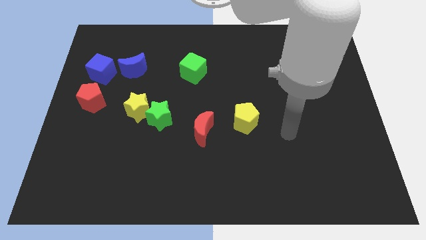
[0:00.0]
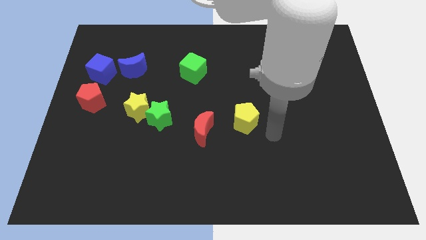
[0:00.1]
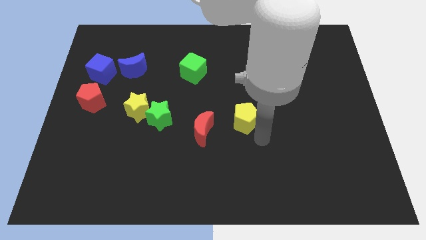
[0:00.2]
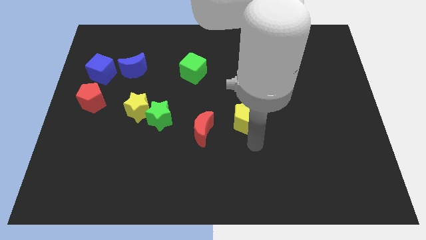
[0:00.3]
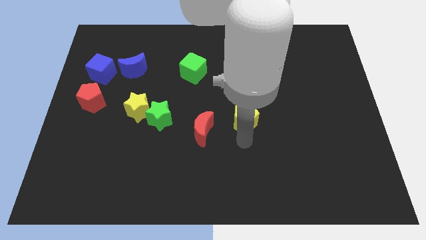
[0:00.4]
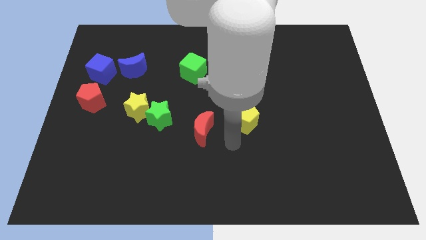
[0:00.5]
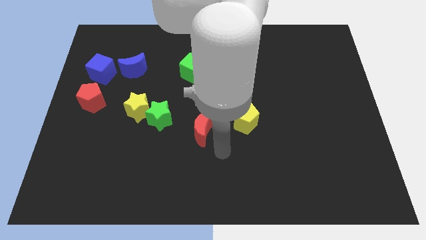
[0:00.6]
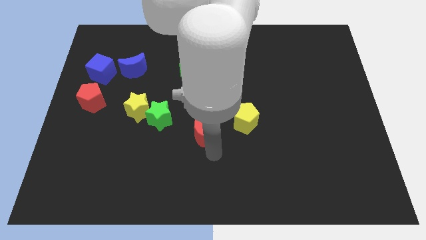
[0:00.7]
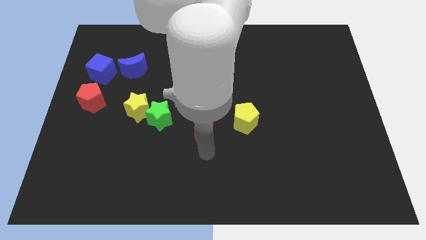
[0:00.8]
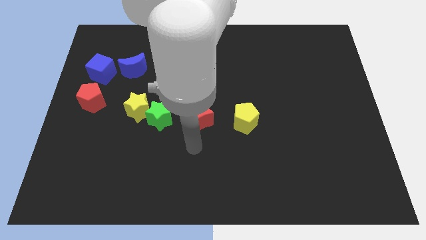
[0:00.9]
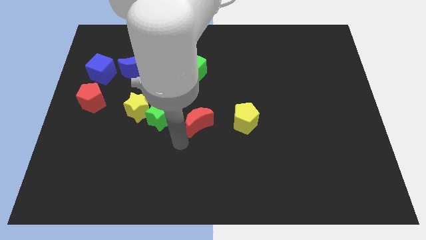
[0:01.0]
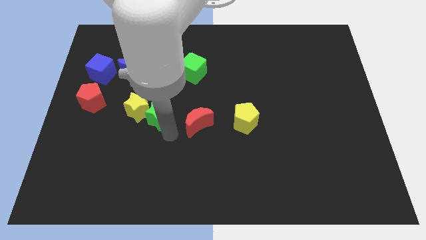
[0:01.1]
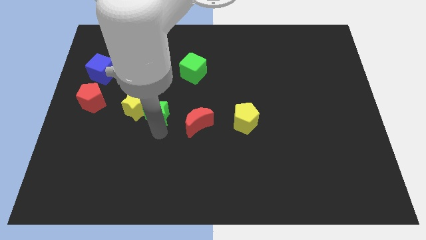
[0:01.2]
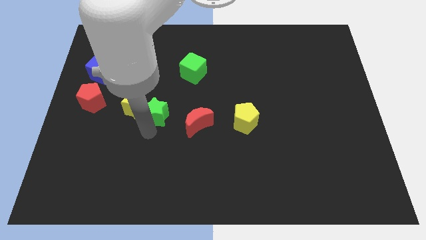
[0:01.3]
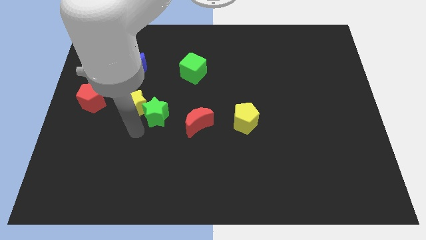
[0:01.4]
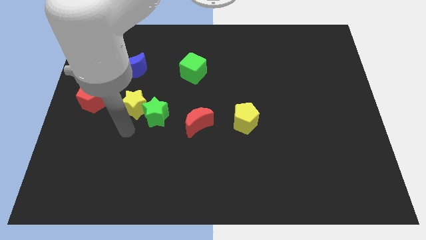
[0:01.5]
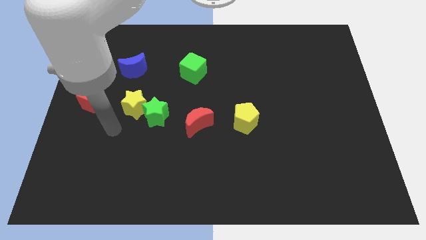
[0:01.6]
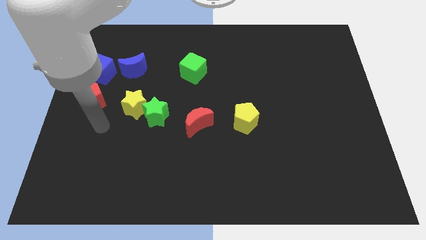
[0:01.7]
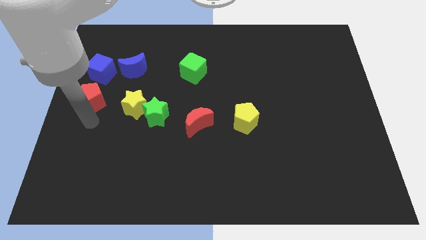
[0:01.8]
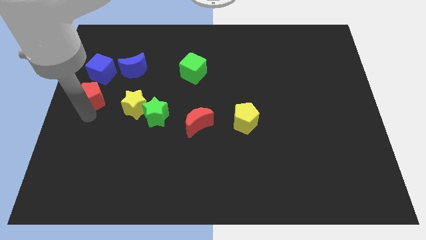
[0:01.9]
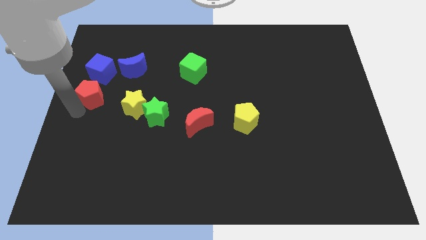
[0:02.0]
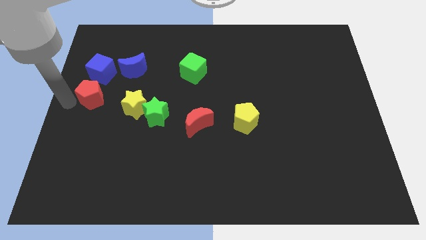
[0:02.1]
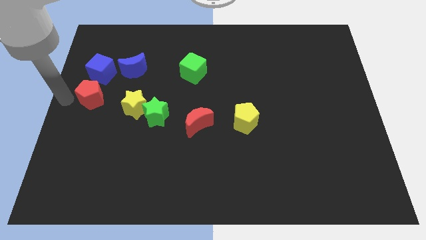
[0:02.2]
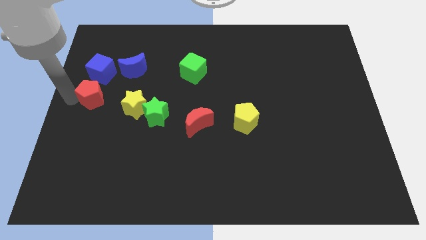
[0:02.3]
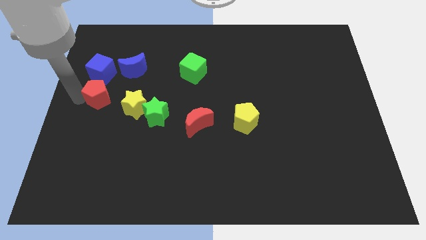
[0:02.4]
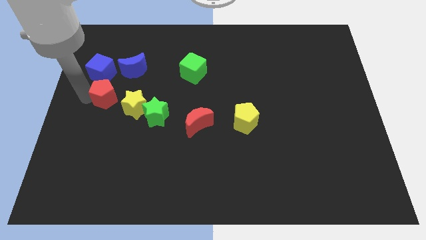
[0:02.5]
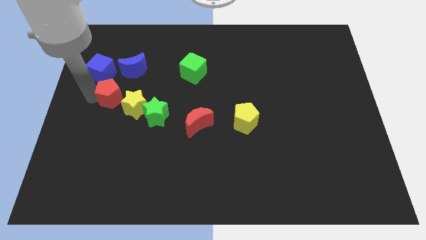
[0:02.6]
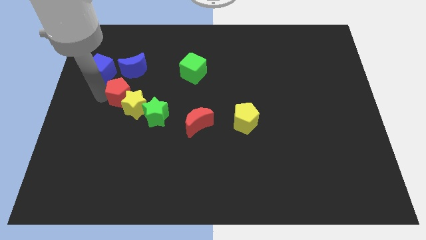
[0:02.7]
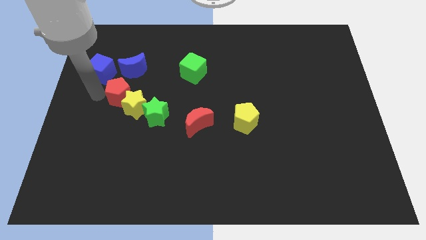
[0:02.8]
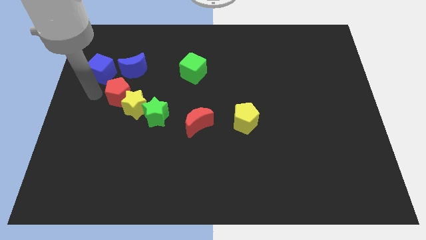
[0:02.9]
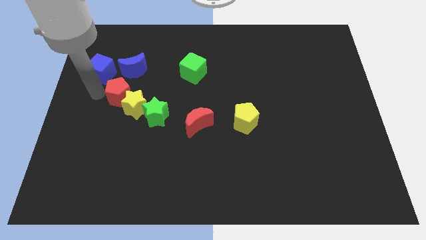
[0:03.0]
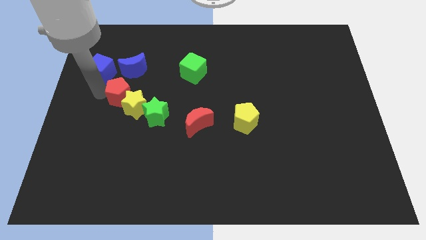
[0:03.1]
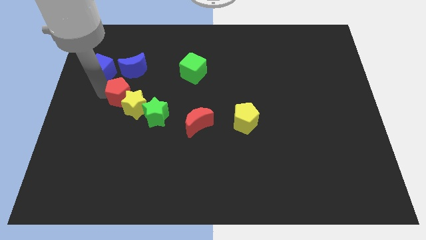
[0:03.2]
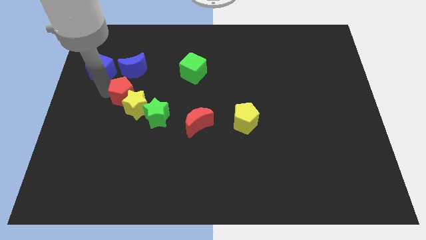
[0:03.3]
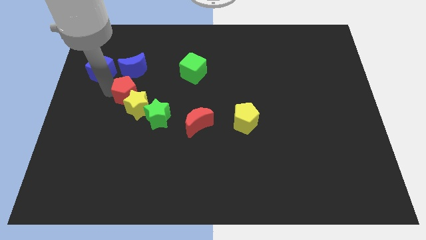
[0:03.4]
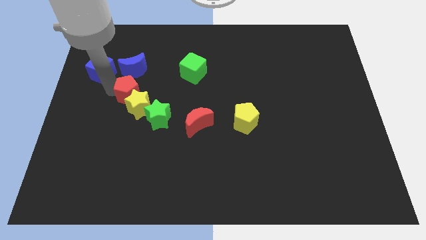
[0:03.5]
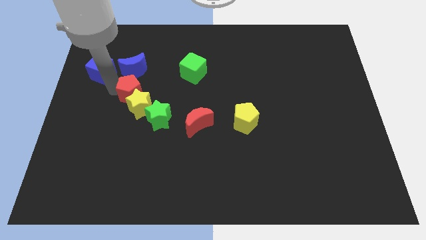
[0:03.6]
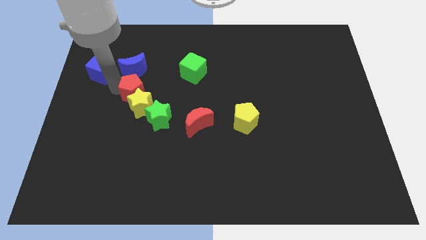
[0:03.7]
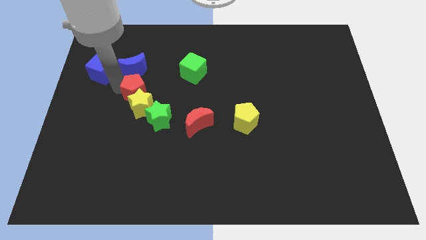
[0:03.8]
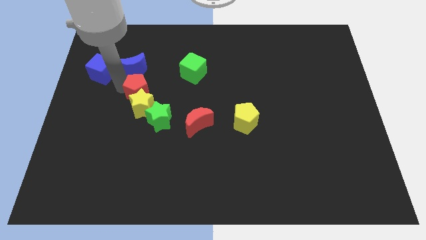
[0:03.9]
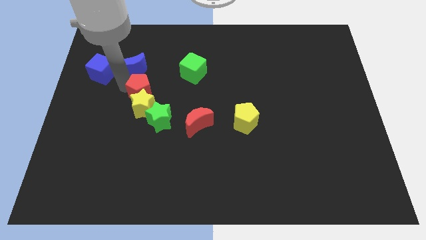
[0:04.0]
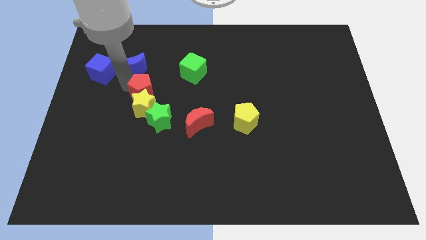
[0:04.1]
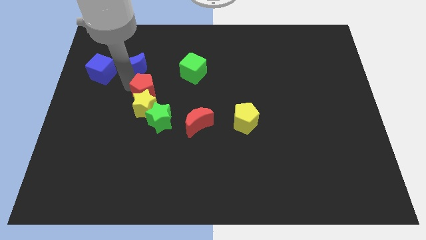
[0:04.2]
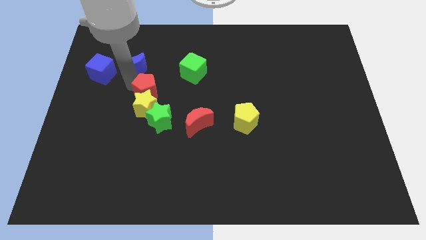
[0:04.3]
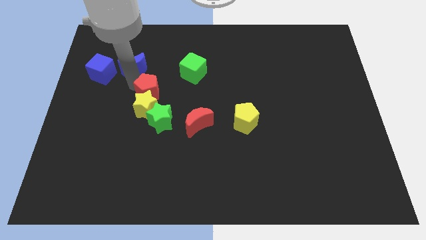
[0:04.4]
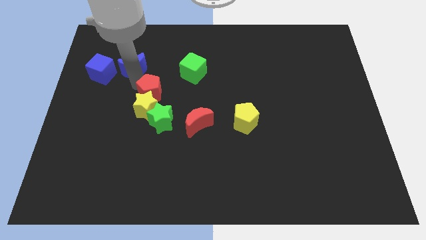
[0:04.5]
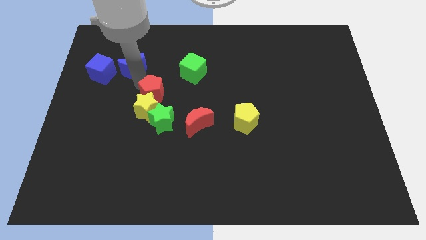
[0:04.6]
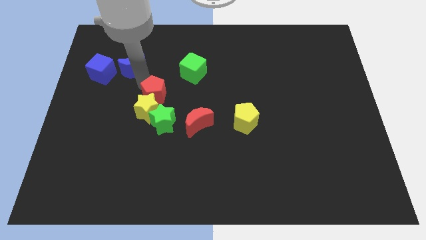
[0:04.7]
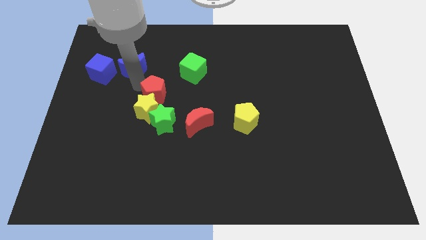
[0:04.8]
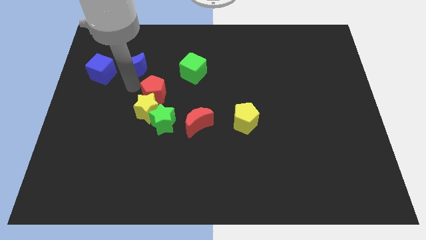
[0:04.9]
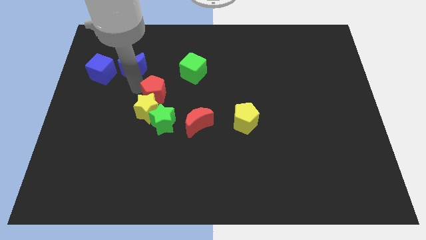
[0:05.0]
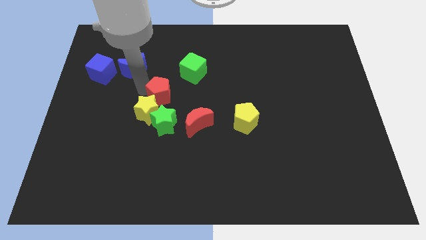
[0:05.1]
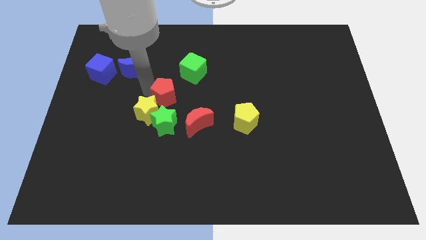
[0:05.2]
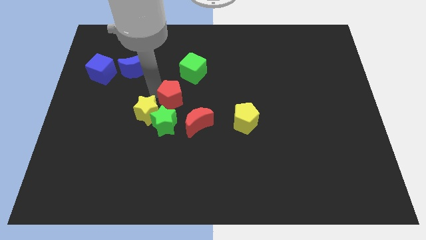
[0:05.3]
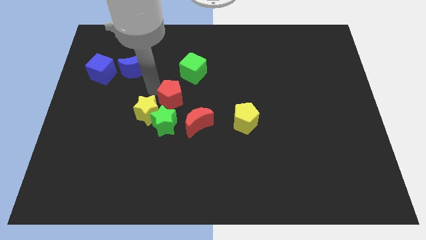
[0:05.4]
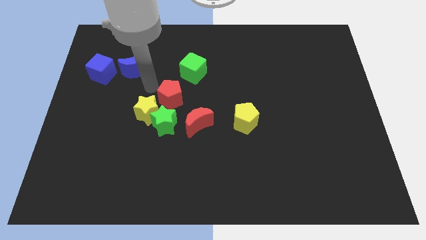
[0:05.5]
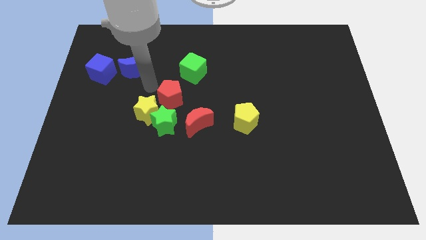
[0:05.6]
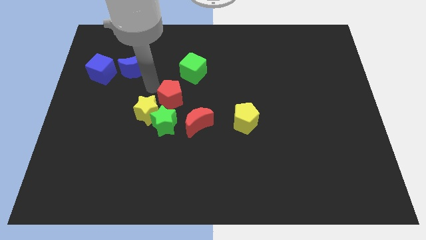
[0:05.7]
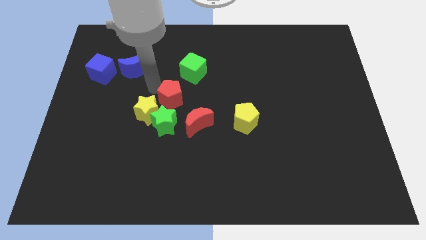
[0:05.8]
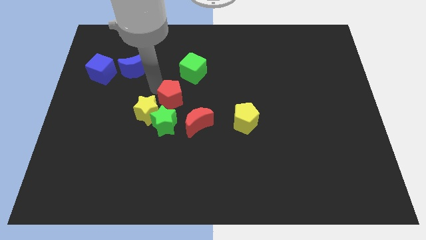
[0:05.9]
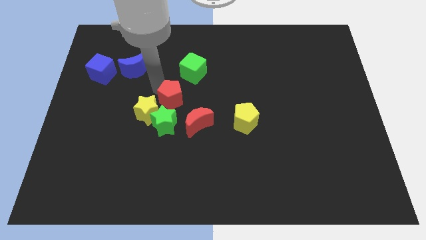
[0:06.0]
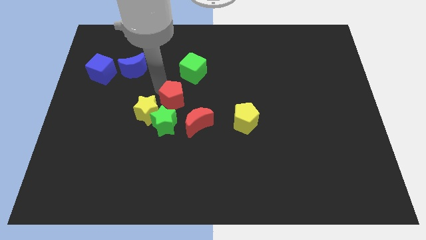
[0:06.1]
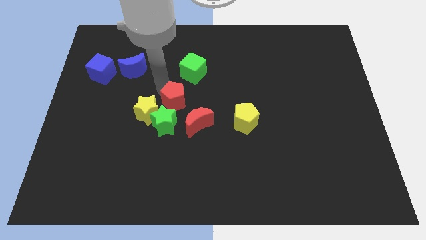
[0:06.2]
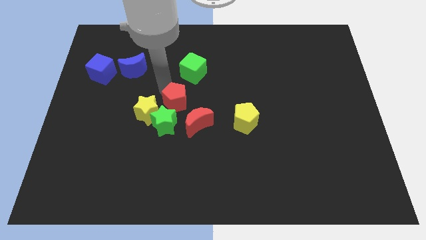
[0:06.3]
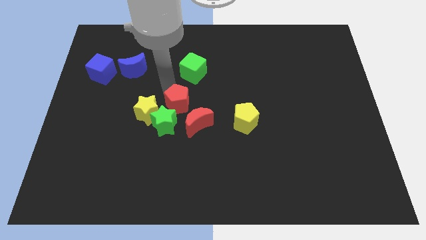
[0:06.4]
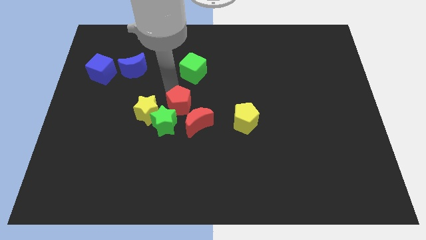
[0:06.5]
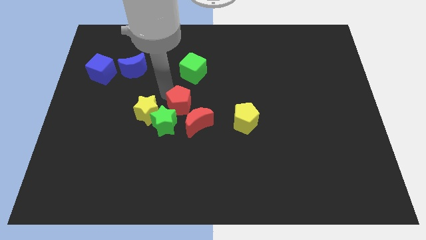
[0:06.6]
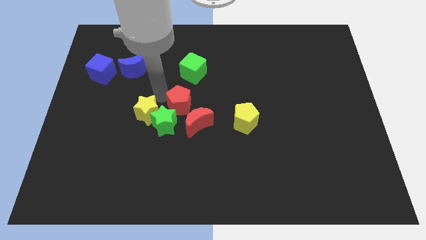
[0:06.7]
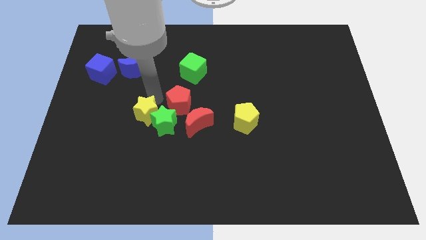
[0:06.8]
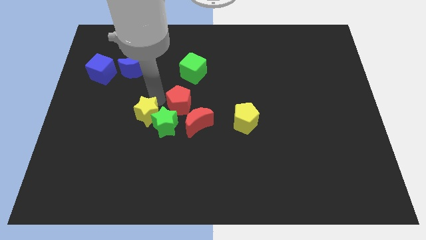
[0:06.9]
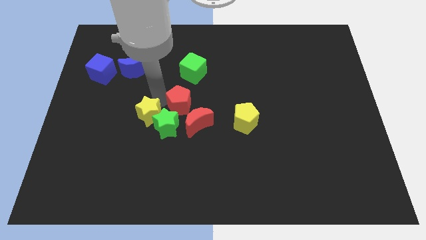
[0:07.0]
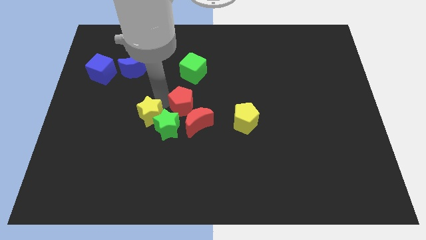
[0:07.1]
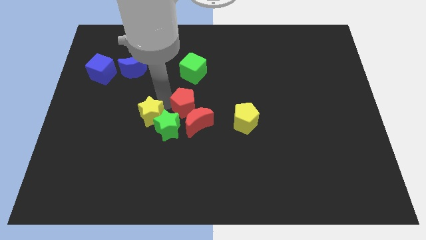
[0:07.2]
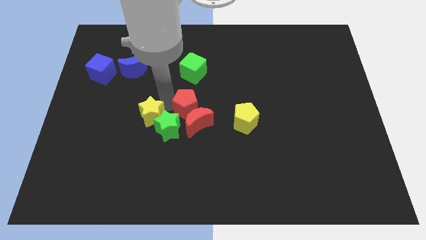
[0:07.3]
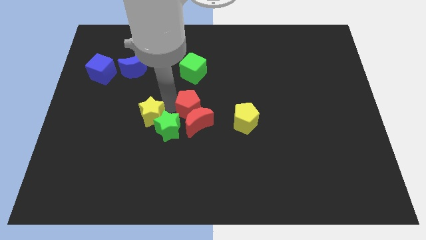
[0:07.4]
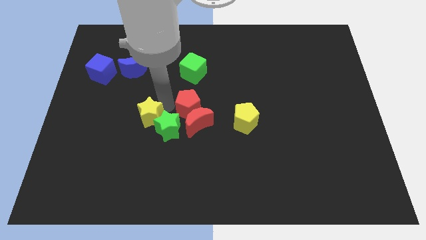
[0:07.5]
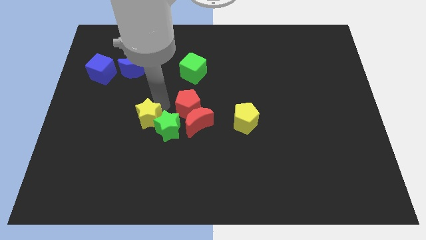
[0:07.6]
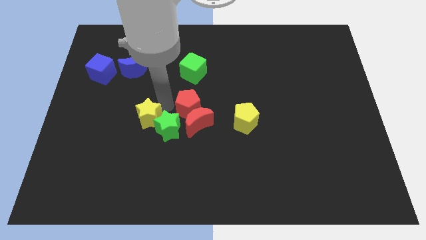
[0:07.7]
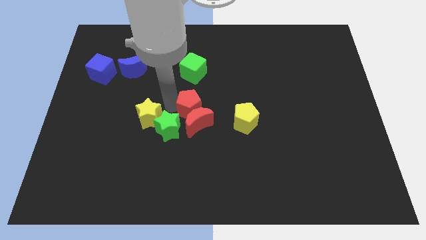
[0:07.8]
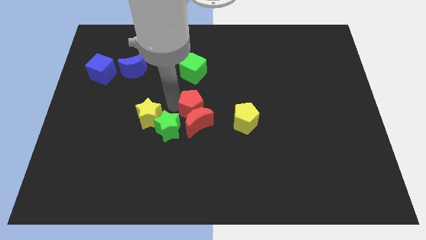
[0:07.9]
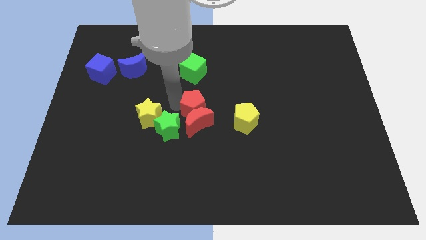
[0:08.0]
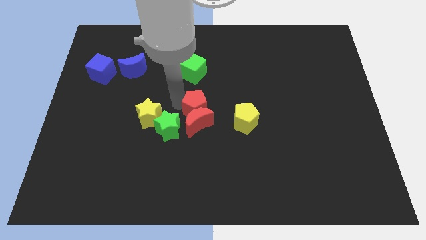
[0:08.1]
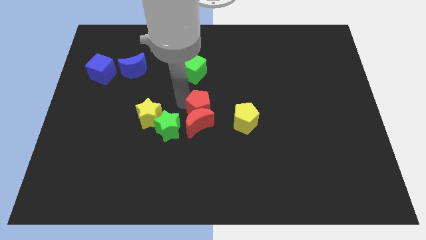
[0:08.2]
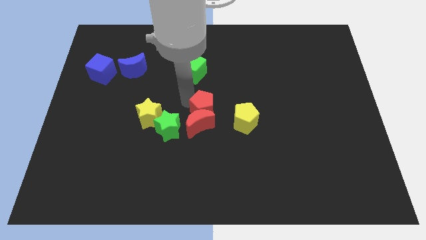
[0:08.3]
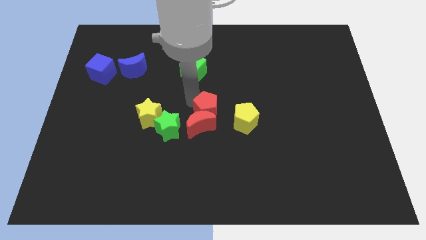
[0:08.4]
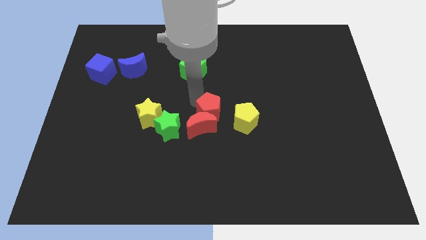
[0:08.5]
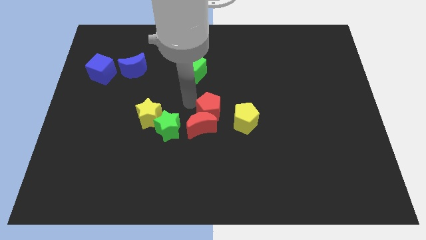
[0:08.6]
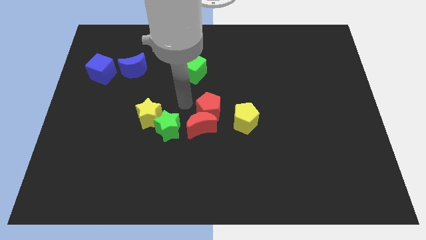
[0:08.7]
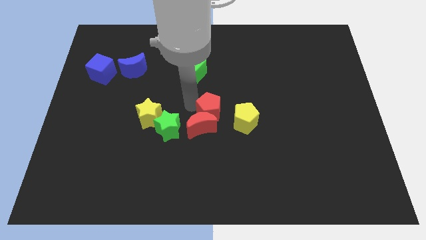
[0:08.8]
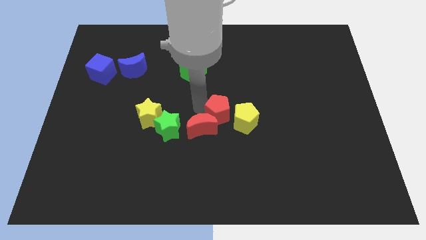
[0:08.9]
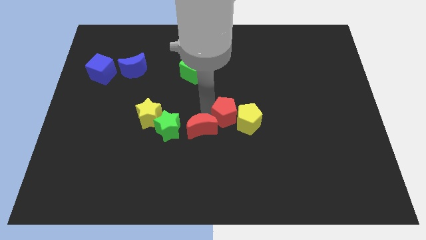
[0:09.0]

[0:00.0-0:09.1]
slide the red pentagon to the yellow pentagon
